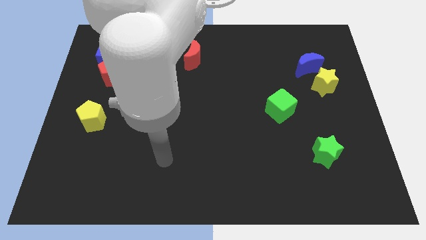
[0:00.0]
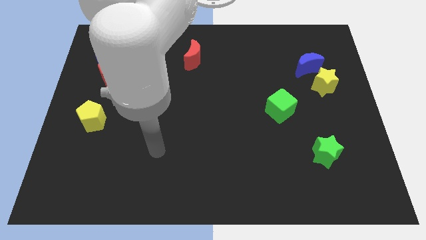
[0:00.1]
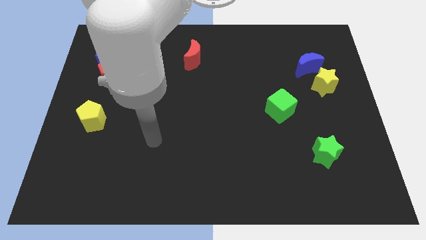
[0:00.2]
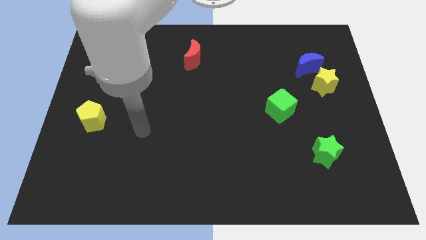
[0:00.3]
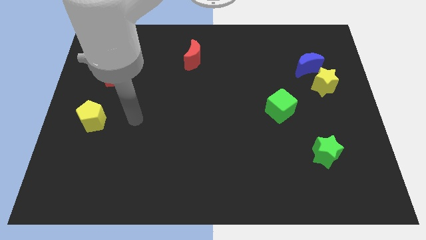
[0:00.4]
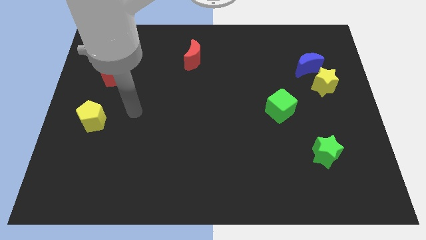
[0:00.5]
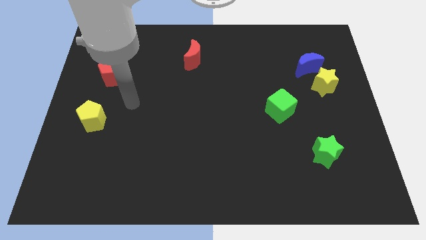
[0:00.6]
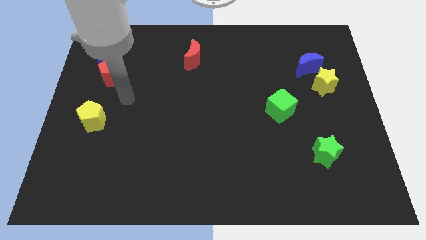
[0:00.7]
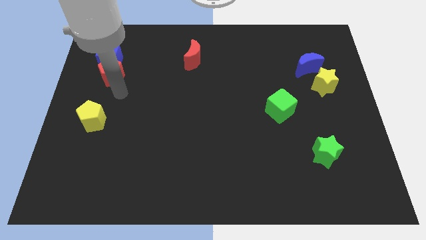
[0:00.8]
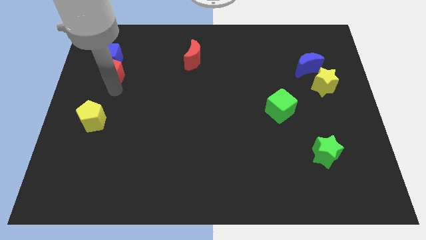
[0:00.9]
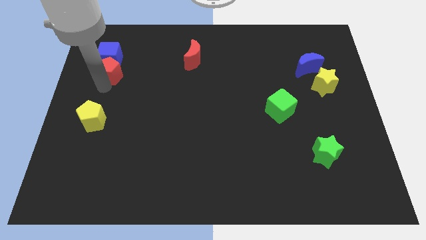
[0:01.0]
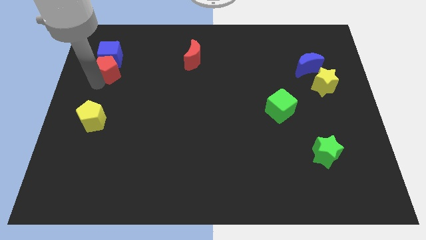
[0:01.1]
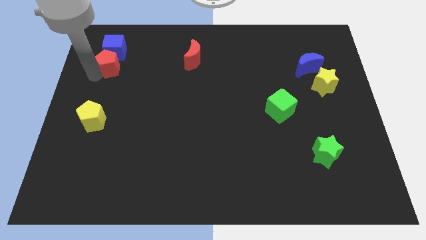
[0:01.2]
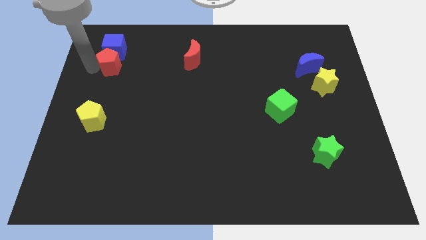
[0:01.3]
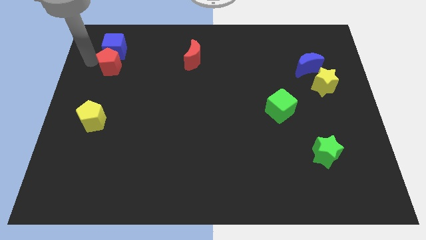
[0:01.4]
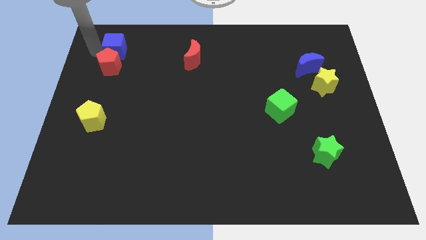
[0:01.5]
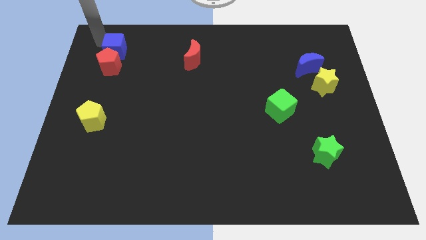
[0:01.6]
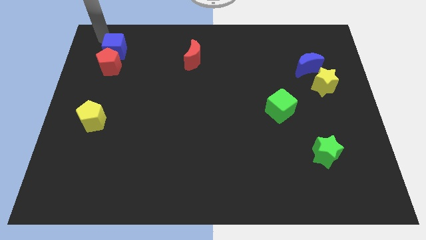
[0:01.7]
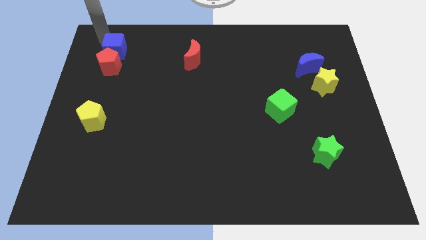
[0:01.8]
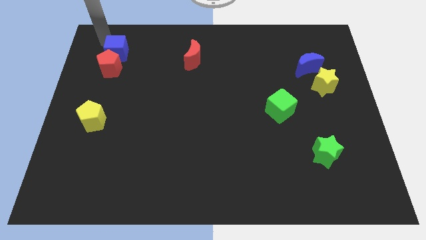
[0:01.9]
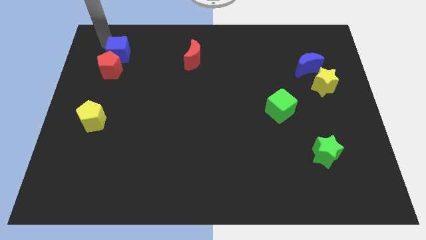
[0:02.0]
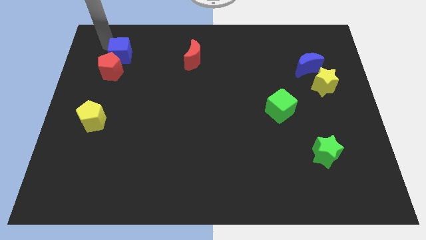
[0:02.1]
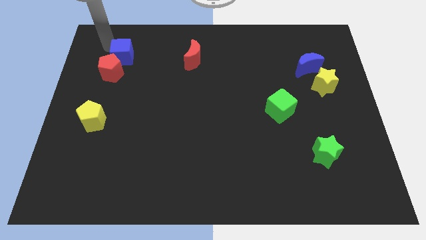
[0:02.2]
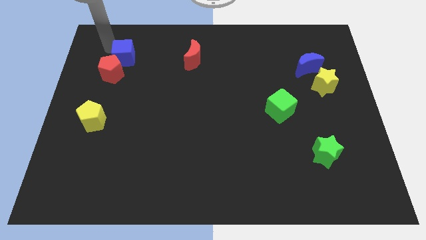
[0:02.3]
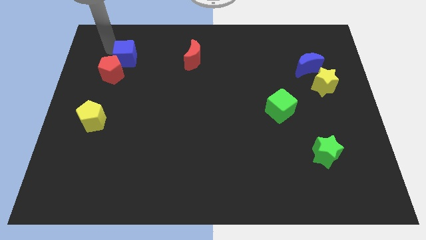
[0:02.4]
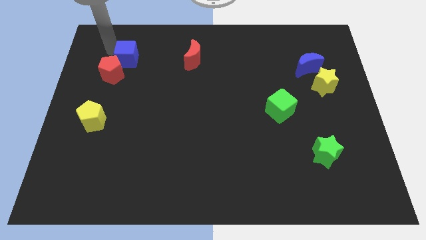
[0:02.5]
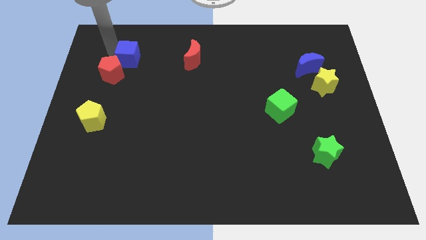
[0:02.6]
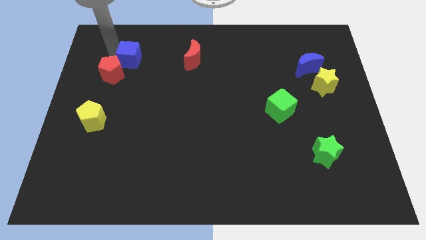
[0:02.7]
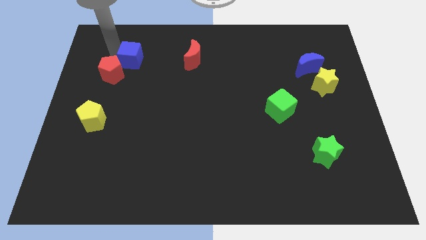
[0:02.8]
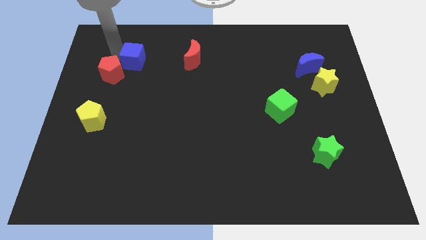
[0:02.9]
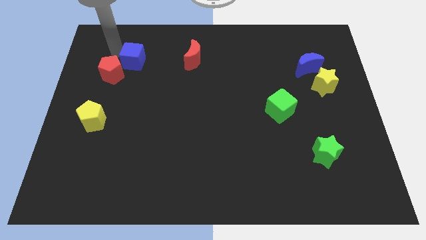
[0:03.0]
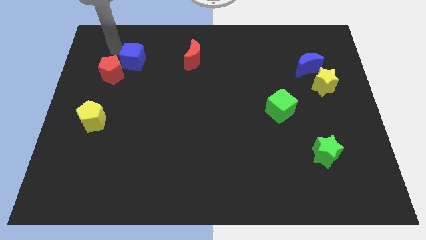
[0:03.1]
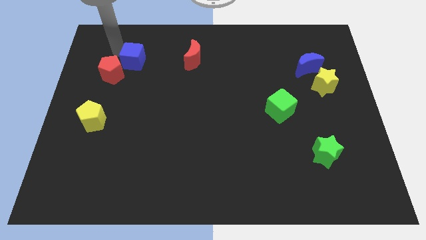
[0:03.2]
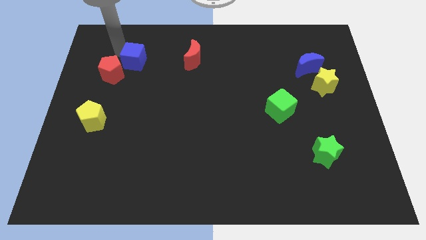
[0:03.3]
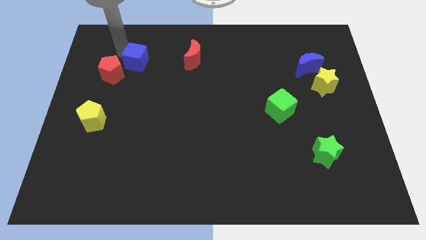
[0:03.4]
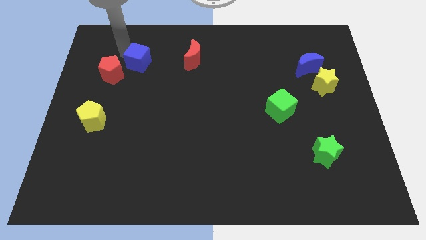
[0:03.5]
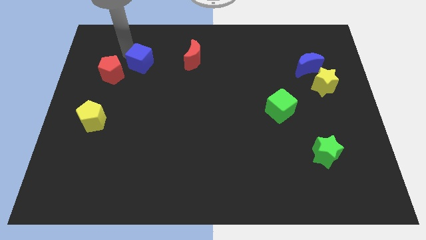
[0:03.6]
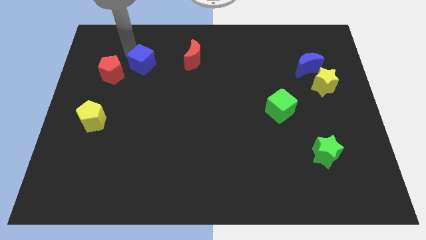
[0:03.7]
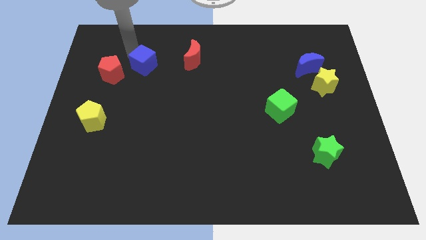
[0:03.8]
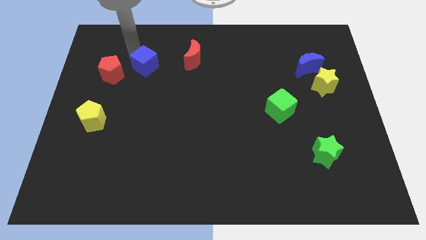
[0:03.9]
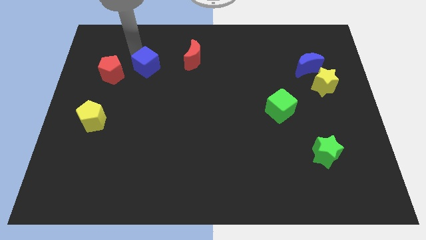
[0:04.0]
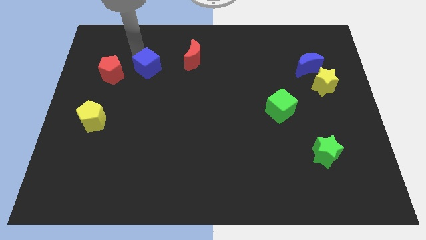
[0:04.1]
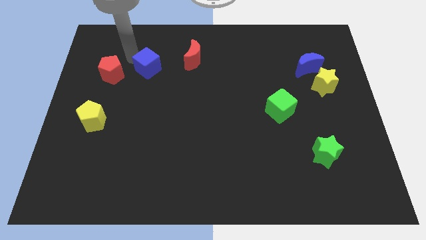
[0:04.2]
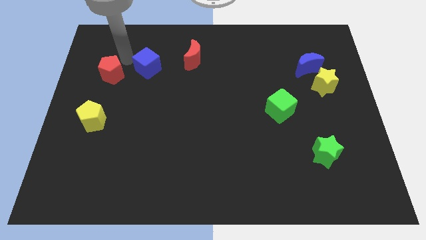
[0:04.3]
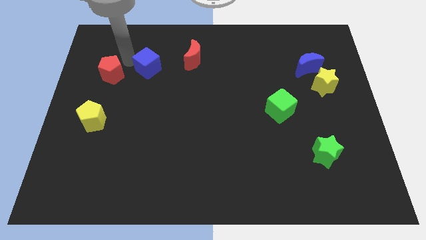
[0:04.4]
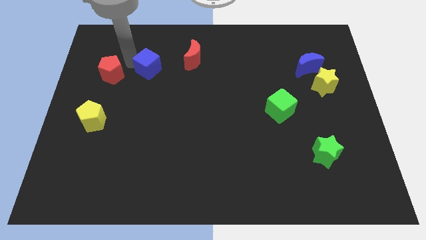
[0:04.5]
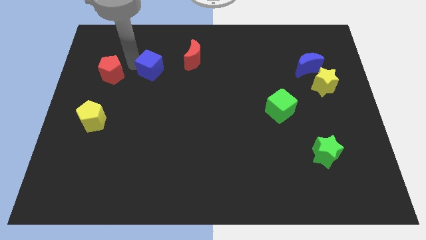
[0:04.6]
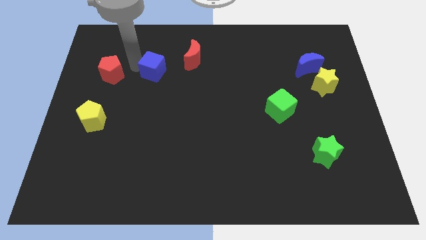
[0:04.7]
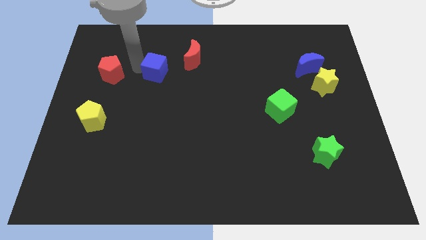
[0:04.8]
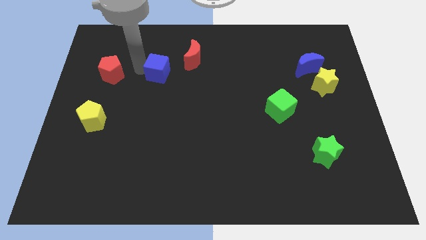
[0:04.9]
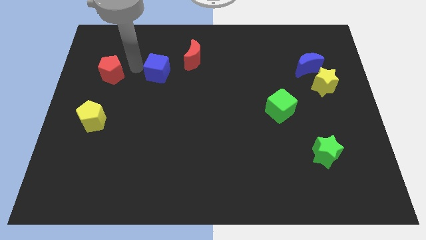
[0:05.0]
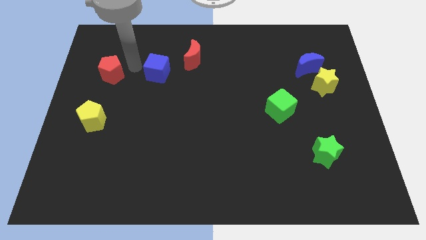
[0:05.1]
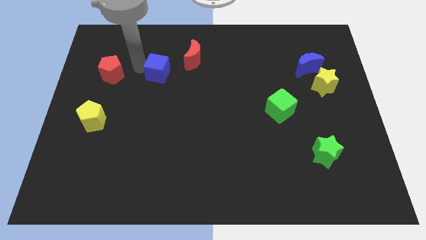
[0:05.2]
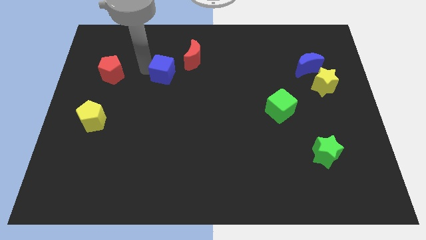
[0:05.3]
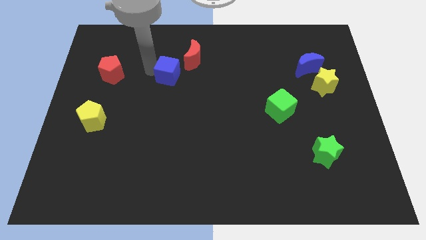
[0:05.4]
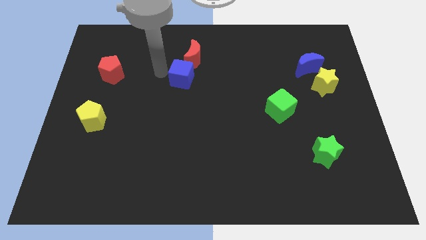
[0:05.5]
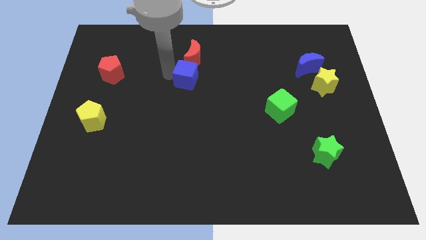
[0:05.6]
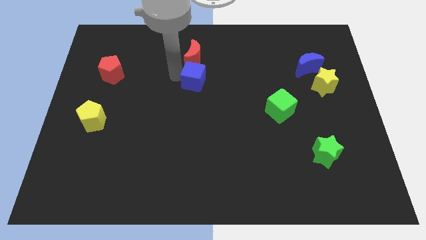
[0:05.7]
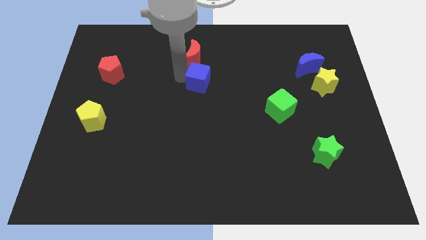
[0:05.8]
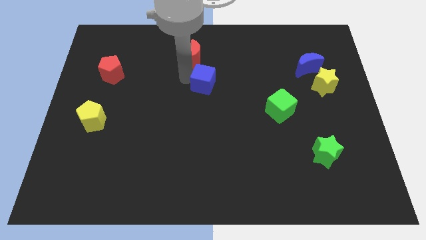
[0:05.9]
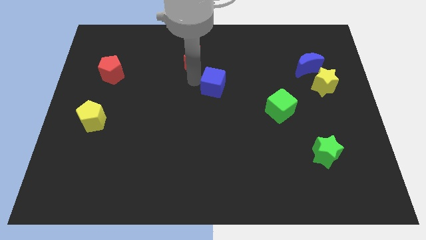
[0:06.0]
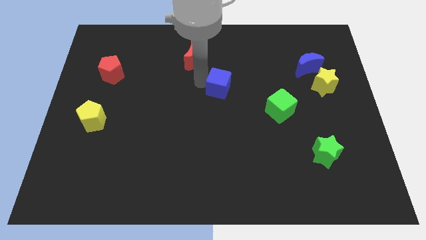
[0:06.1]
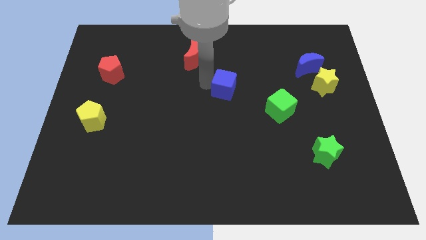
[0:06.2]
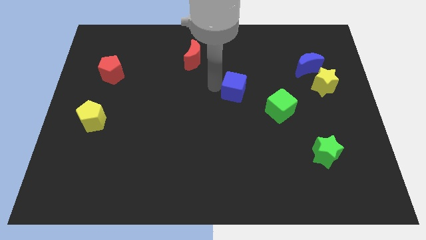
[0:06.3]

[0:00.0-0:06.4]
slide the blue cube to the top left side of the green cube
